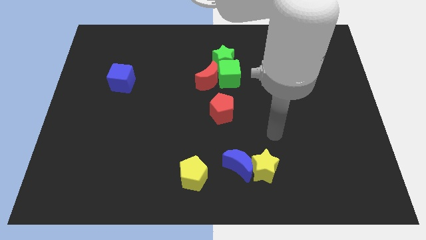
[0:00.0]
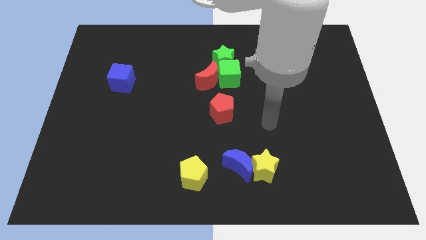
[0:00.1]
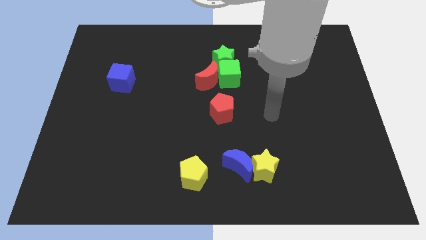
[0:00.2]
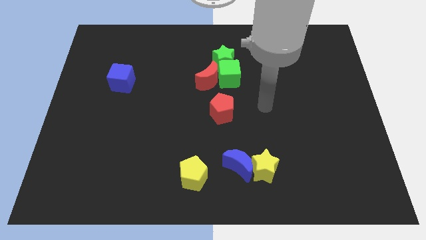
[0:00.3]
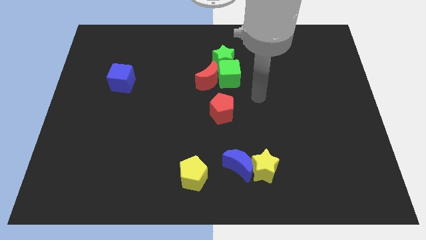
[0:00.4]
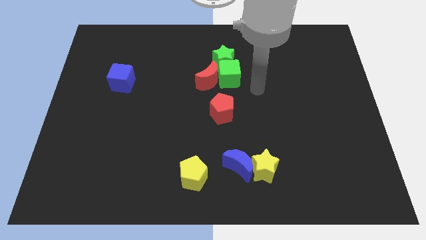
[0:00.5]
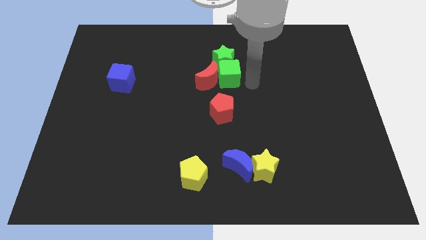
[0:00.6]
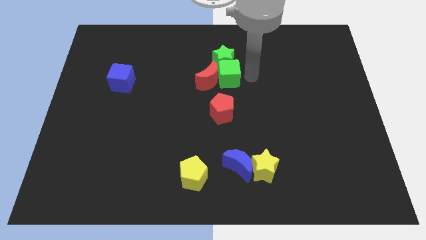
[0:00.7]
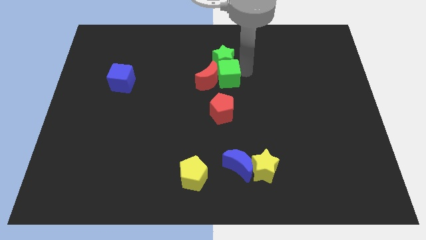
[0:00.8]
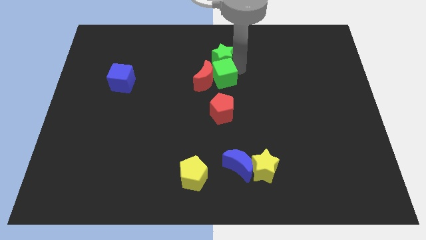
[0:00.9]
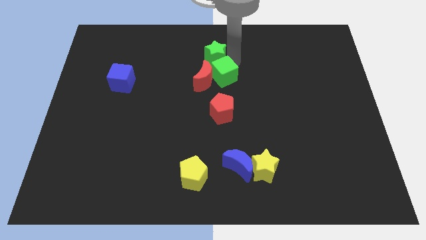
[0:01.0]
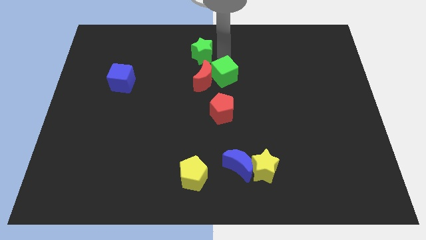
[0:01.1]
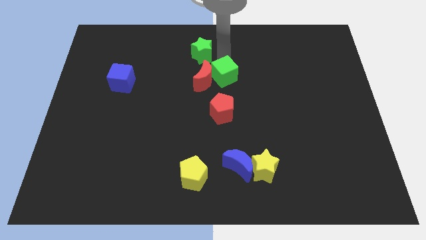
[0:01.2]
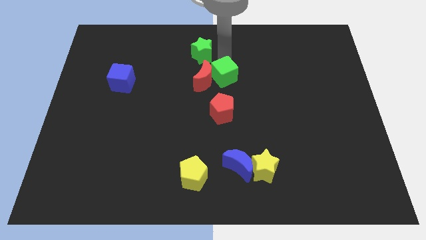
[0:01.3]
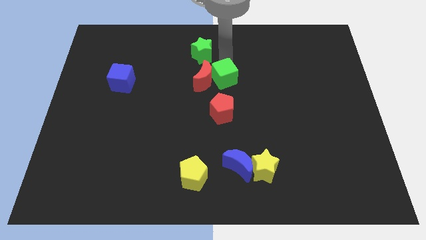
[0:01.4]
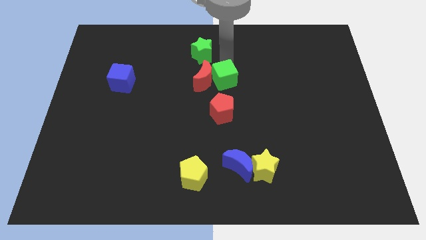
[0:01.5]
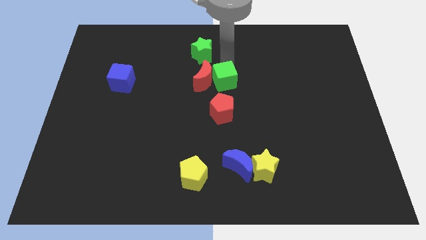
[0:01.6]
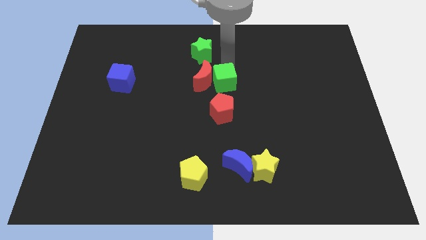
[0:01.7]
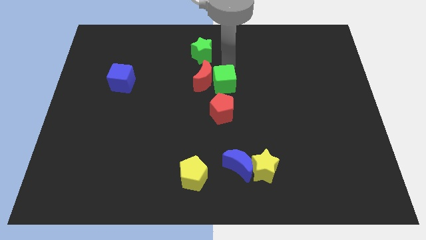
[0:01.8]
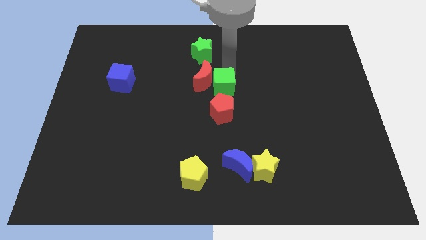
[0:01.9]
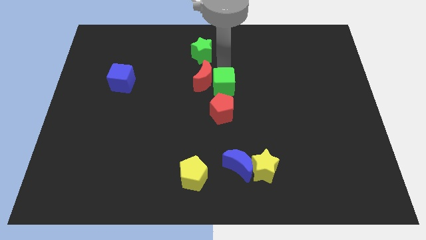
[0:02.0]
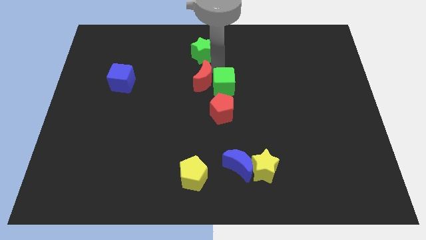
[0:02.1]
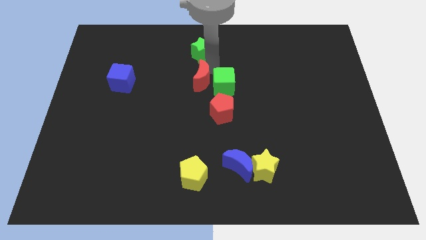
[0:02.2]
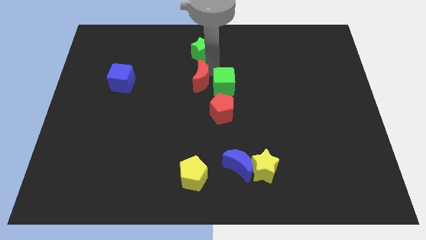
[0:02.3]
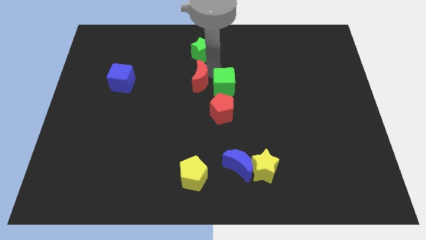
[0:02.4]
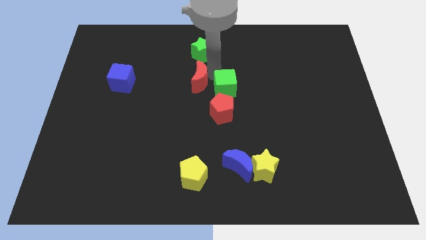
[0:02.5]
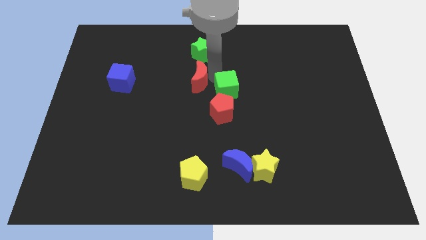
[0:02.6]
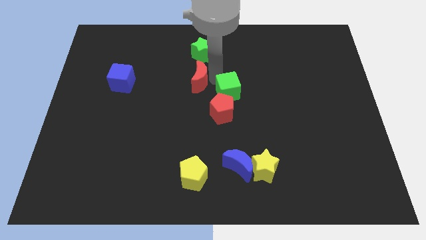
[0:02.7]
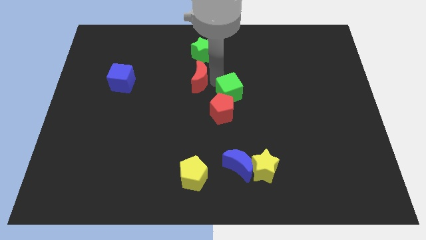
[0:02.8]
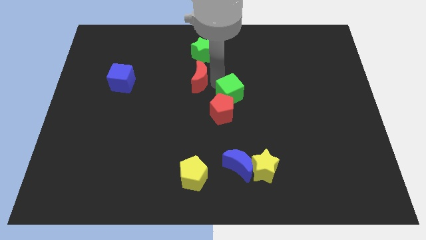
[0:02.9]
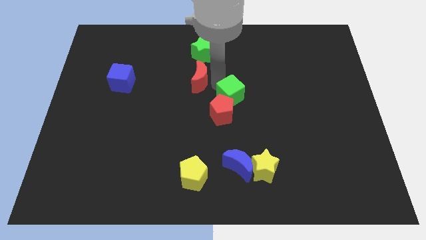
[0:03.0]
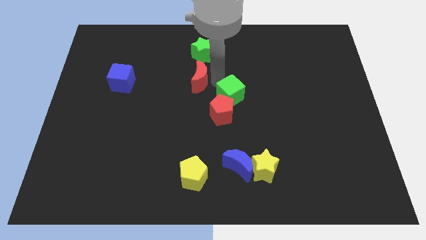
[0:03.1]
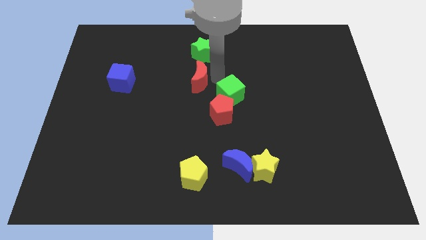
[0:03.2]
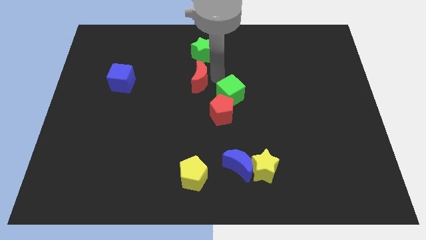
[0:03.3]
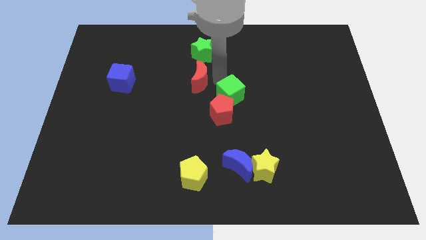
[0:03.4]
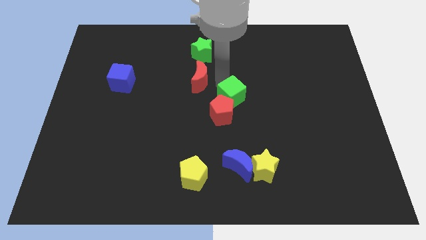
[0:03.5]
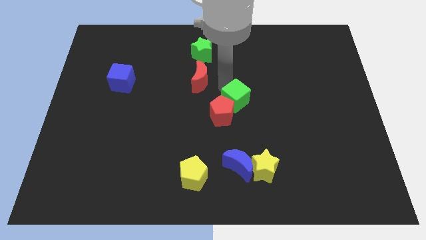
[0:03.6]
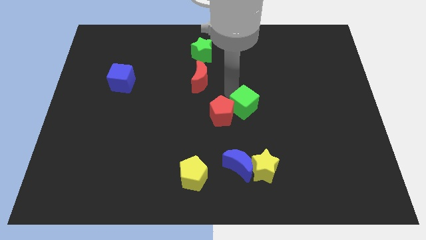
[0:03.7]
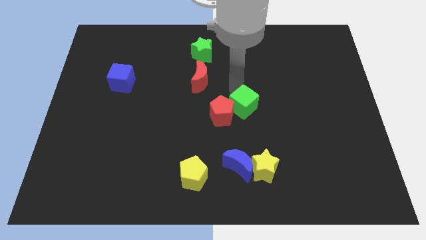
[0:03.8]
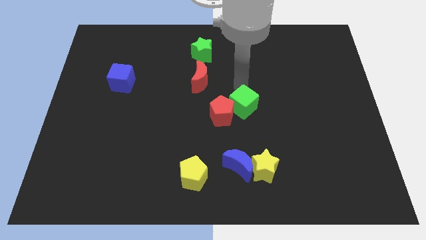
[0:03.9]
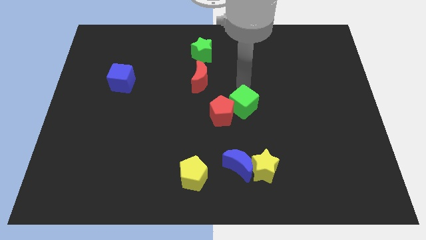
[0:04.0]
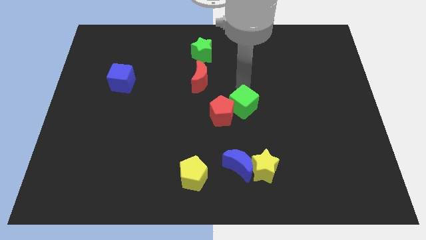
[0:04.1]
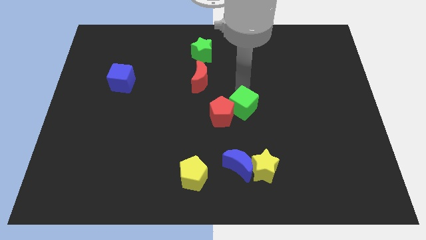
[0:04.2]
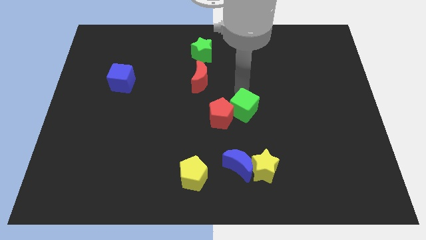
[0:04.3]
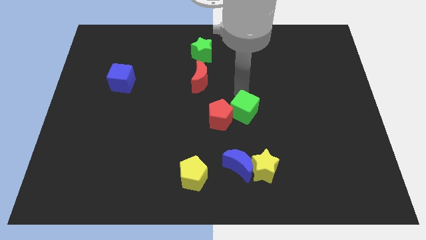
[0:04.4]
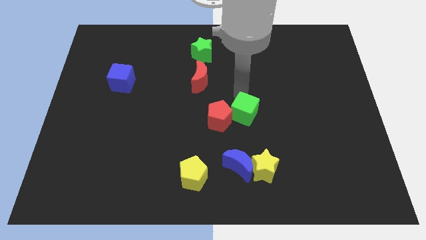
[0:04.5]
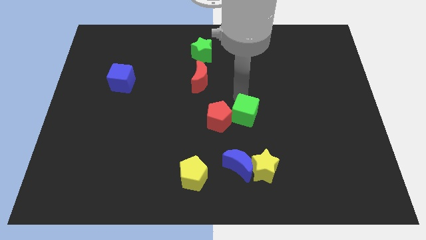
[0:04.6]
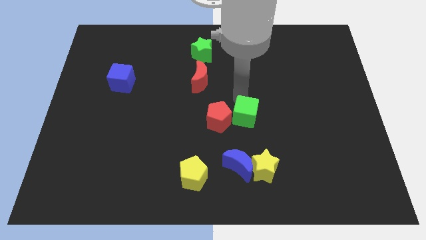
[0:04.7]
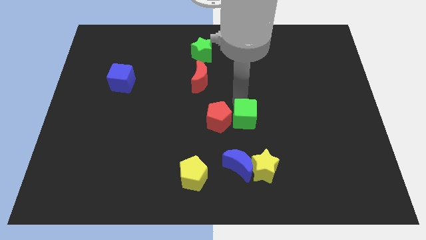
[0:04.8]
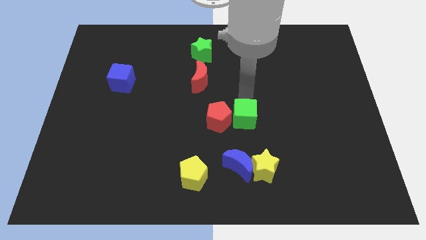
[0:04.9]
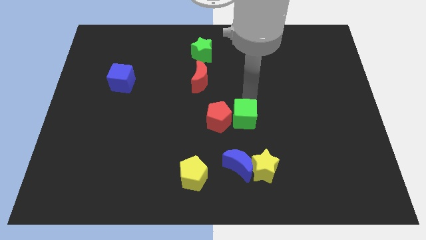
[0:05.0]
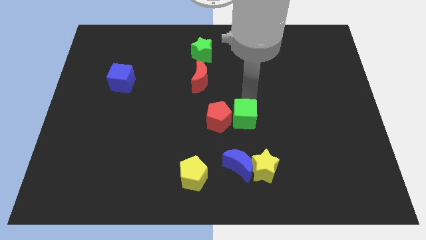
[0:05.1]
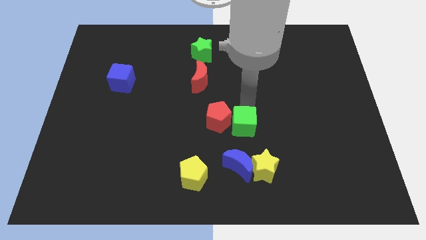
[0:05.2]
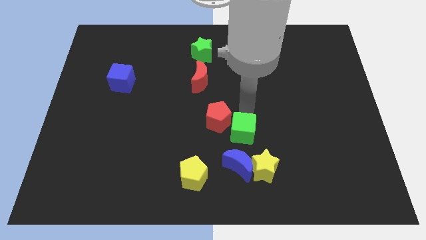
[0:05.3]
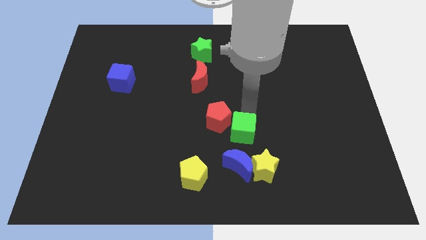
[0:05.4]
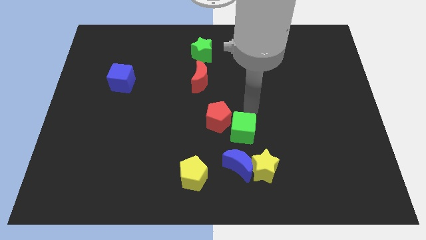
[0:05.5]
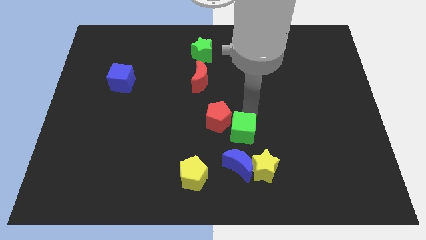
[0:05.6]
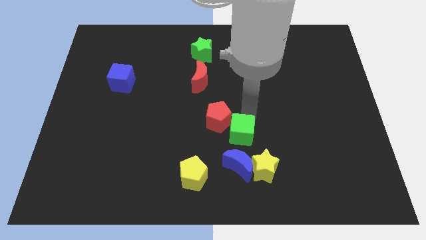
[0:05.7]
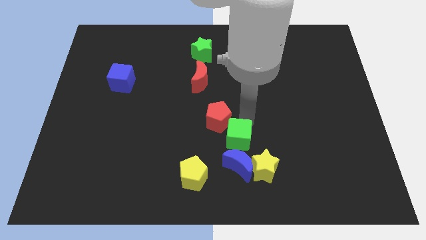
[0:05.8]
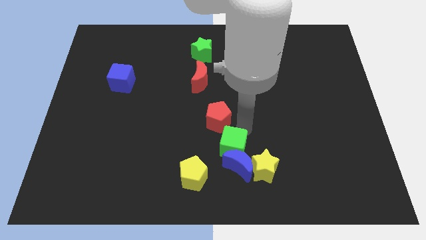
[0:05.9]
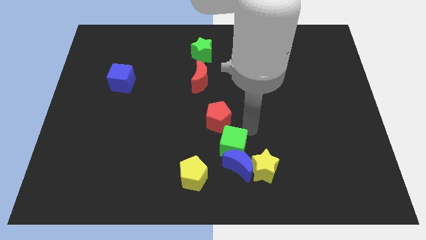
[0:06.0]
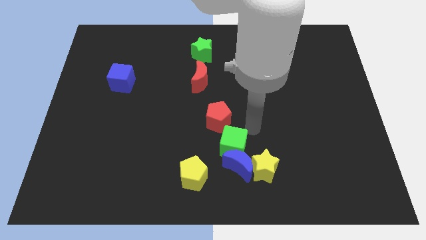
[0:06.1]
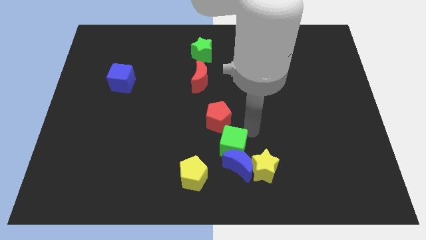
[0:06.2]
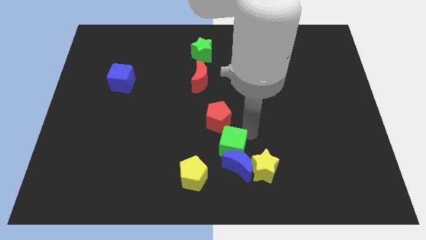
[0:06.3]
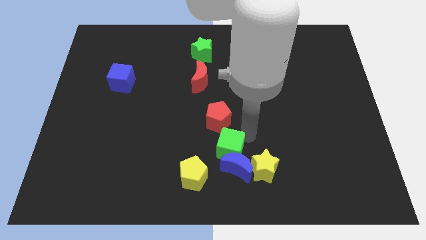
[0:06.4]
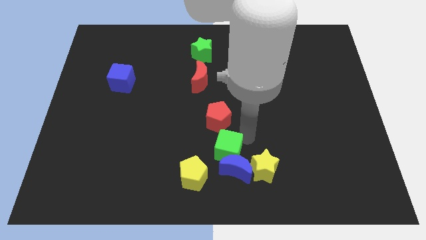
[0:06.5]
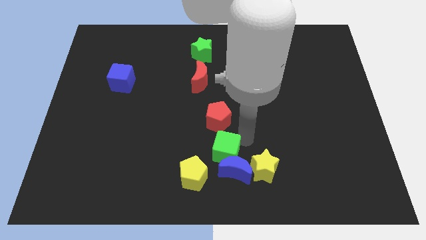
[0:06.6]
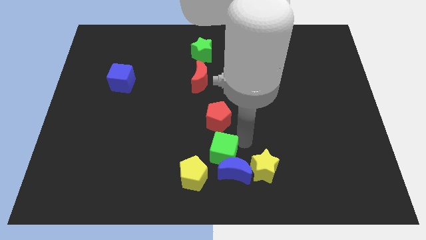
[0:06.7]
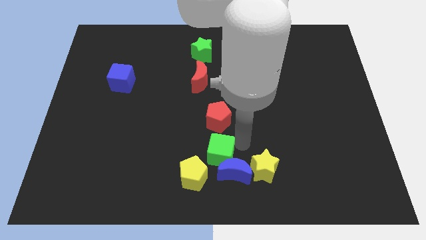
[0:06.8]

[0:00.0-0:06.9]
move the green cube to the bottom side

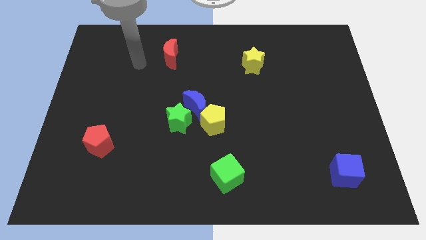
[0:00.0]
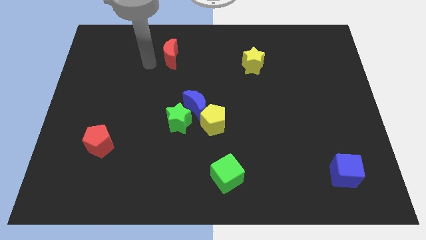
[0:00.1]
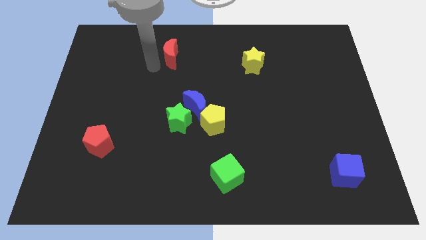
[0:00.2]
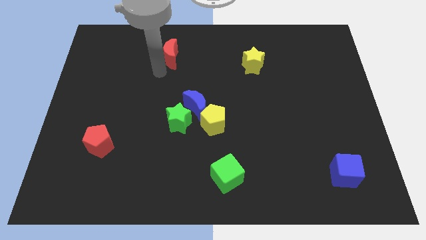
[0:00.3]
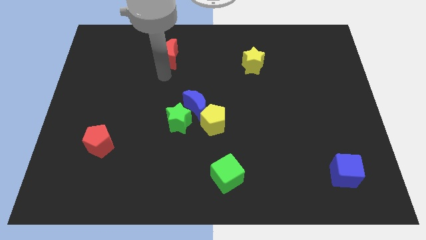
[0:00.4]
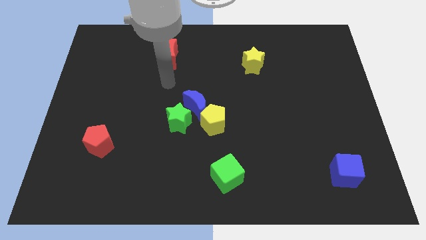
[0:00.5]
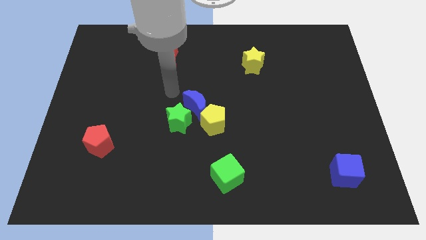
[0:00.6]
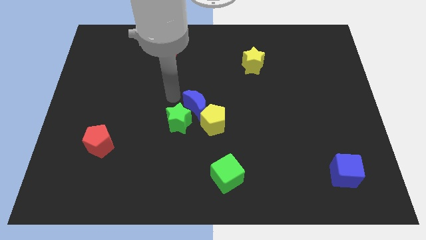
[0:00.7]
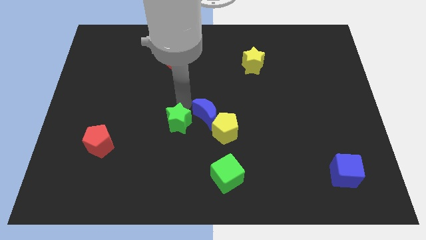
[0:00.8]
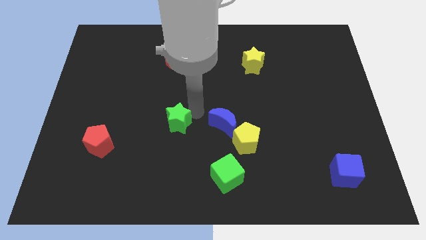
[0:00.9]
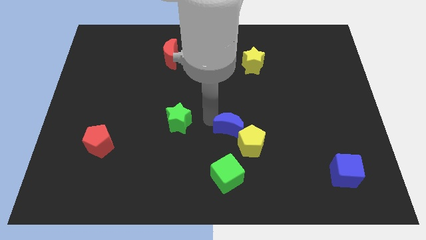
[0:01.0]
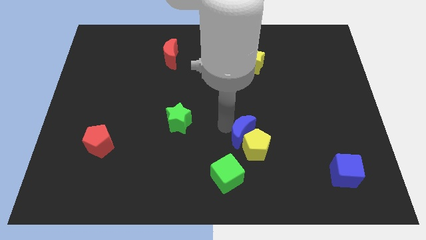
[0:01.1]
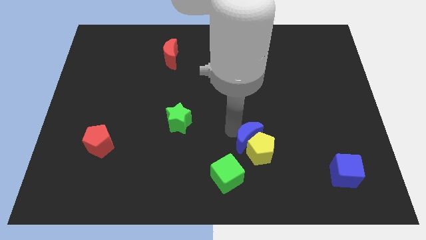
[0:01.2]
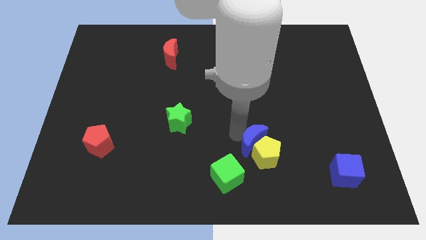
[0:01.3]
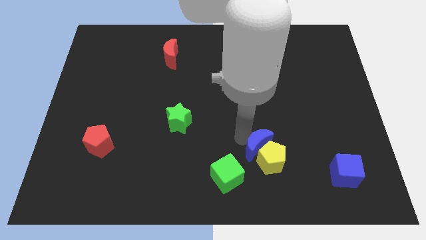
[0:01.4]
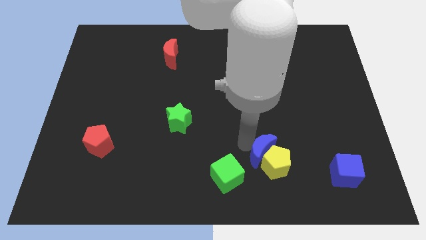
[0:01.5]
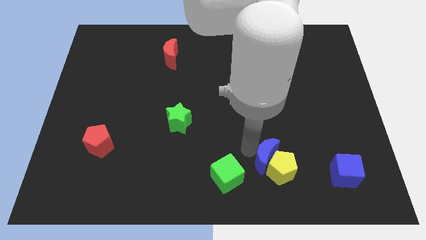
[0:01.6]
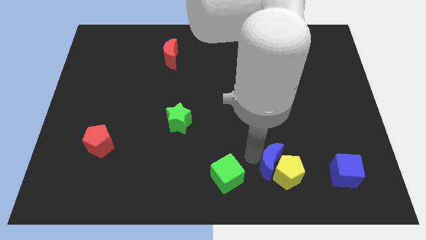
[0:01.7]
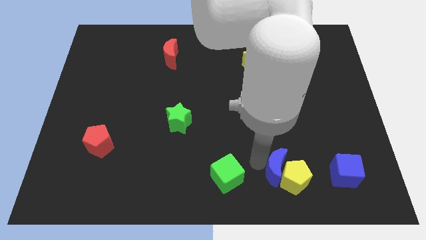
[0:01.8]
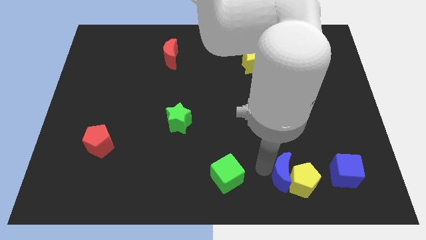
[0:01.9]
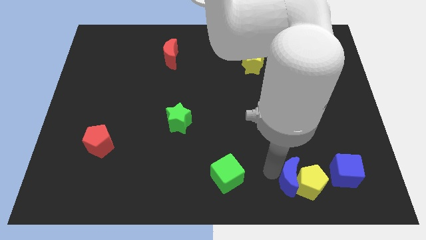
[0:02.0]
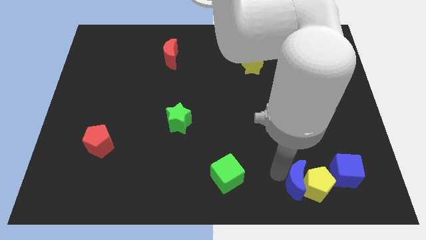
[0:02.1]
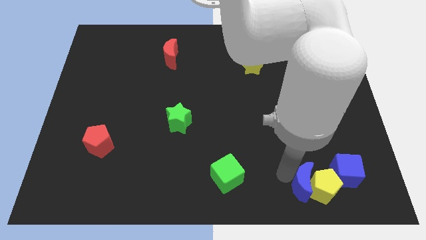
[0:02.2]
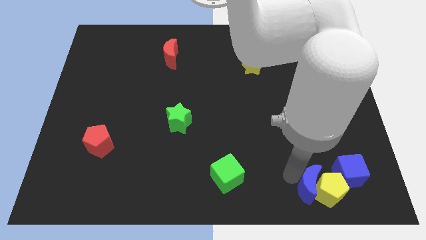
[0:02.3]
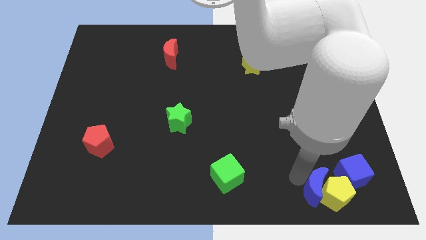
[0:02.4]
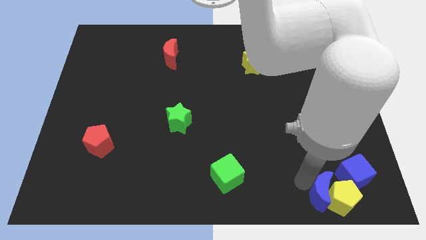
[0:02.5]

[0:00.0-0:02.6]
slide the yellow pentagon to the bottom right
